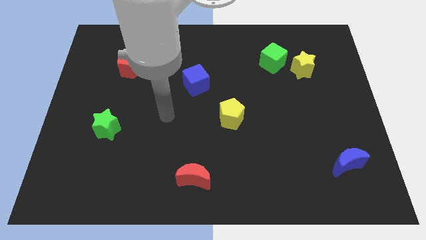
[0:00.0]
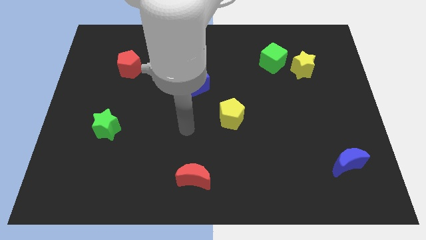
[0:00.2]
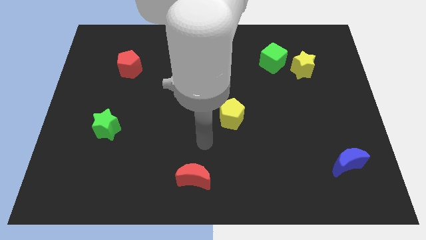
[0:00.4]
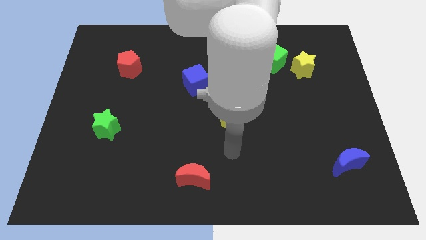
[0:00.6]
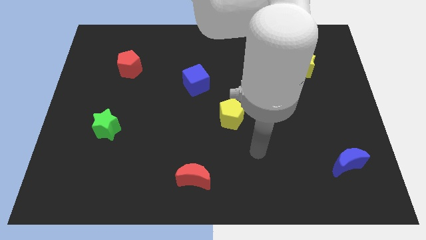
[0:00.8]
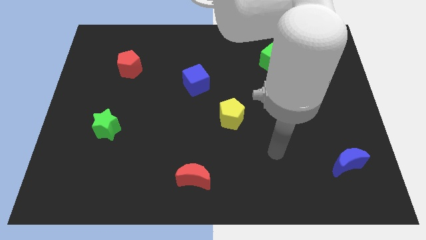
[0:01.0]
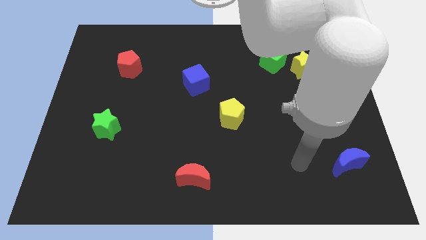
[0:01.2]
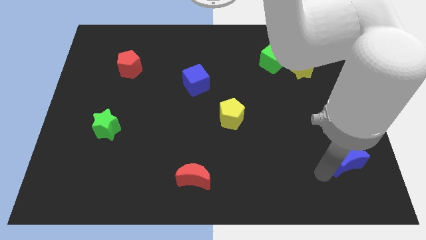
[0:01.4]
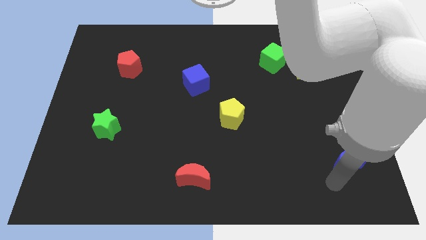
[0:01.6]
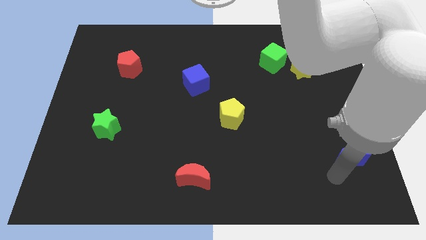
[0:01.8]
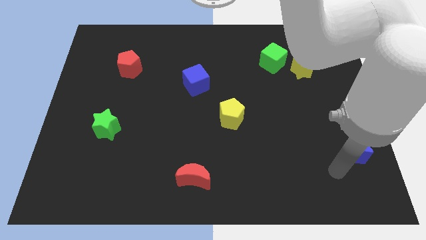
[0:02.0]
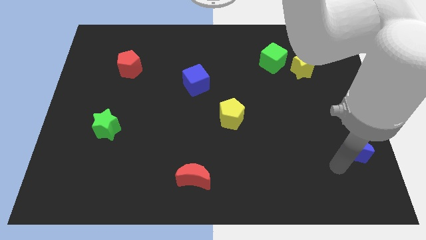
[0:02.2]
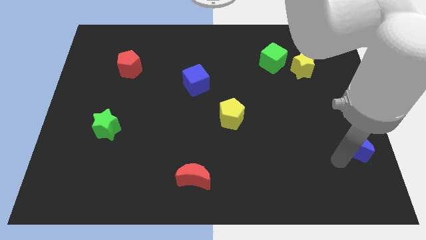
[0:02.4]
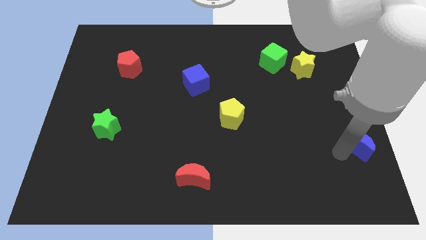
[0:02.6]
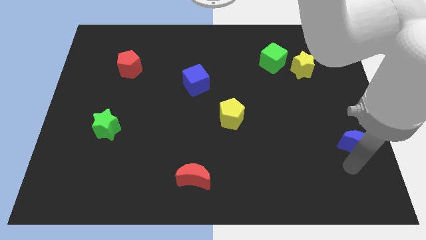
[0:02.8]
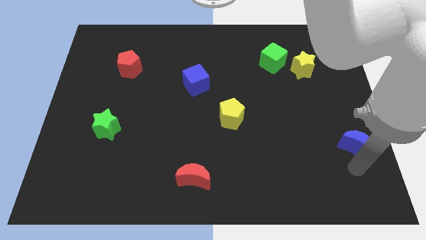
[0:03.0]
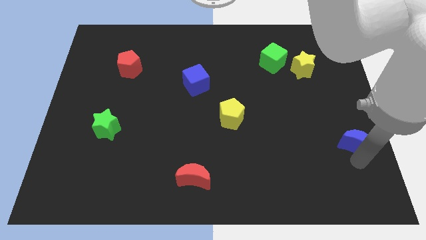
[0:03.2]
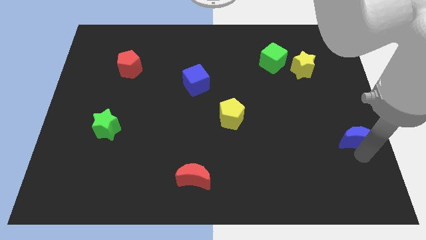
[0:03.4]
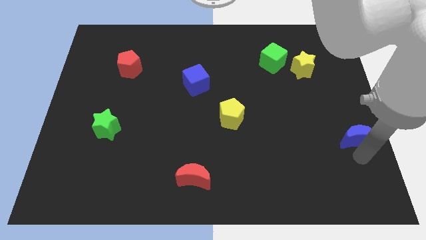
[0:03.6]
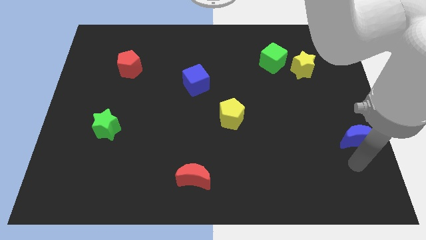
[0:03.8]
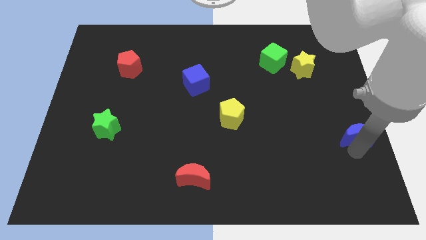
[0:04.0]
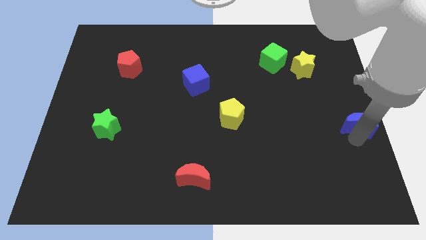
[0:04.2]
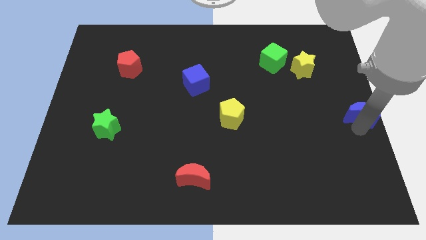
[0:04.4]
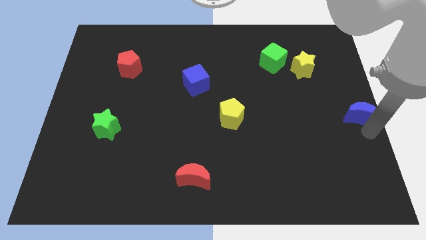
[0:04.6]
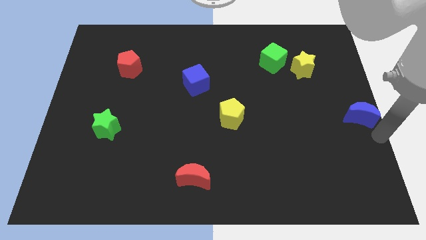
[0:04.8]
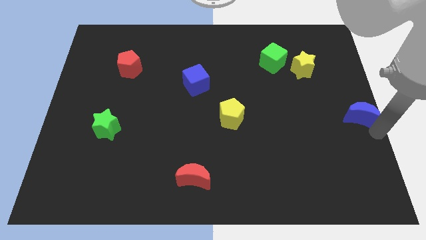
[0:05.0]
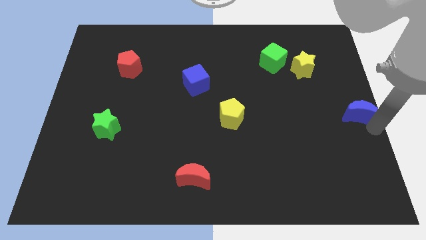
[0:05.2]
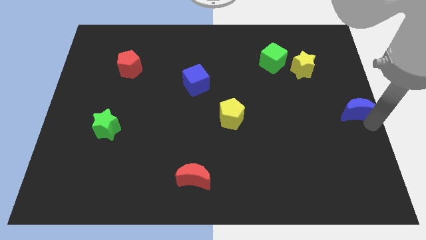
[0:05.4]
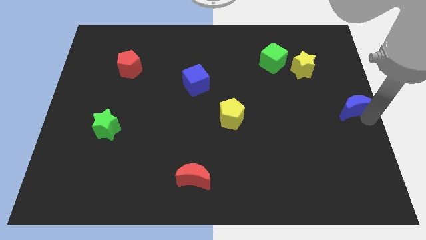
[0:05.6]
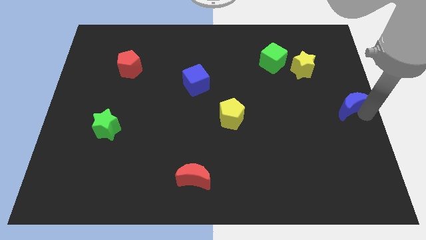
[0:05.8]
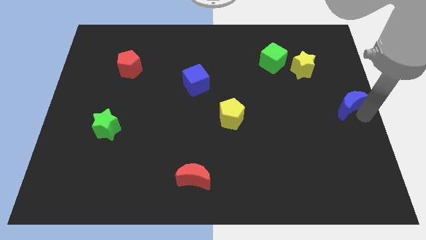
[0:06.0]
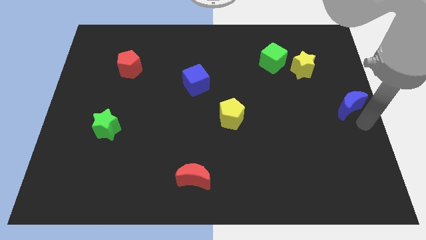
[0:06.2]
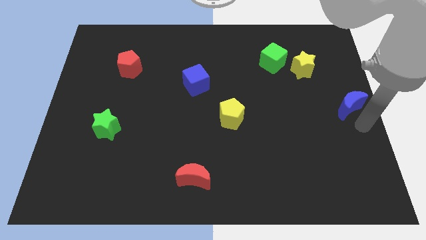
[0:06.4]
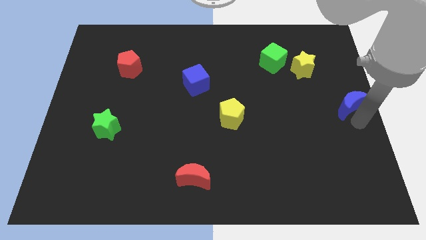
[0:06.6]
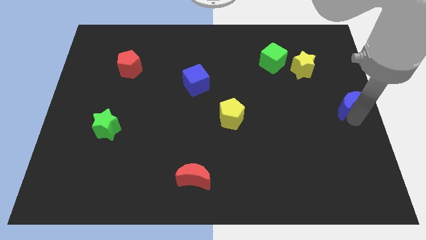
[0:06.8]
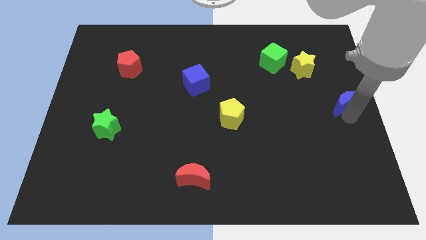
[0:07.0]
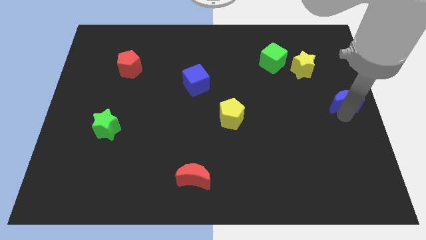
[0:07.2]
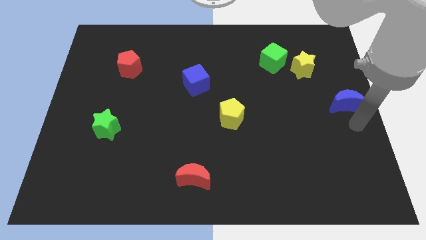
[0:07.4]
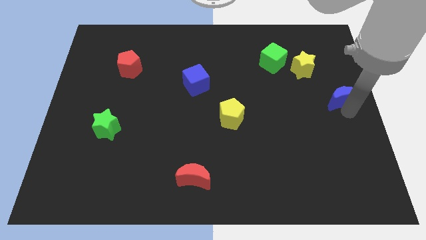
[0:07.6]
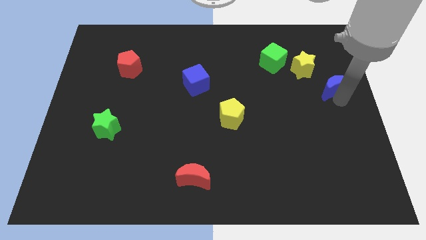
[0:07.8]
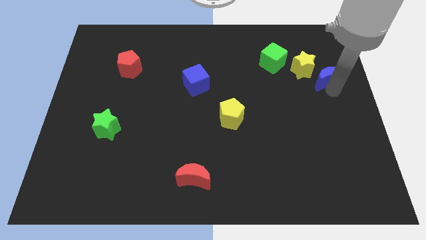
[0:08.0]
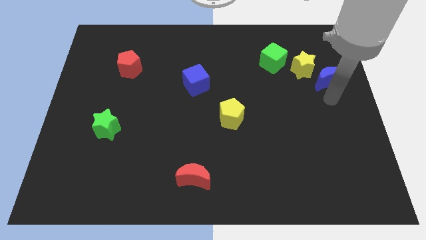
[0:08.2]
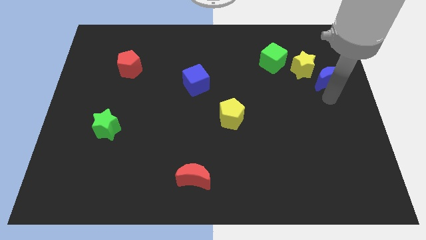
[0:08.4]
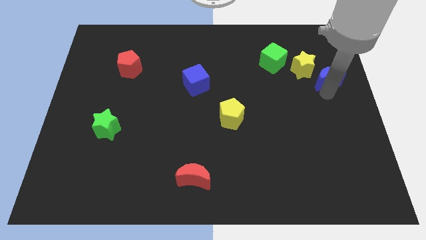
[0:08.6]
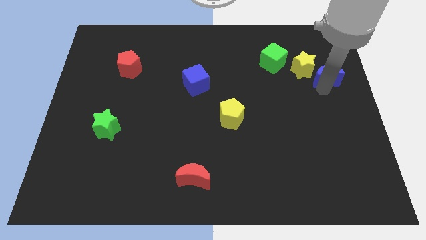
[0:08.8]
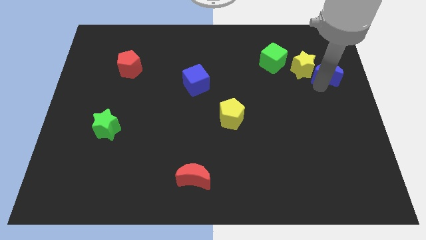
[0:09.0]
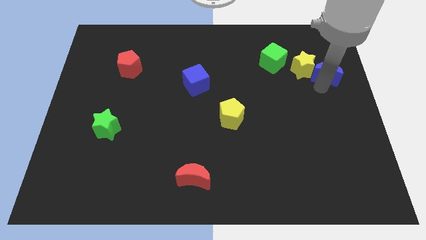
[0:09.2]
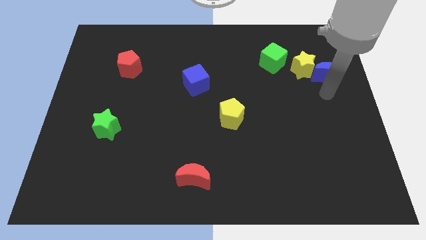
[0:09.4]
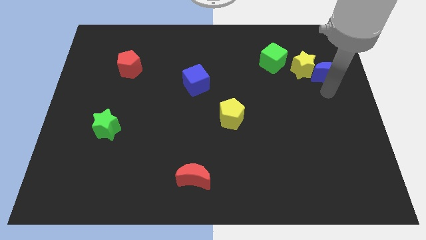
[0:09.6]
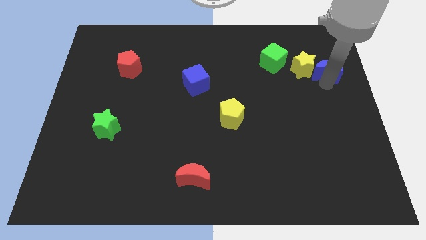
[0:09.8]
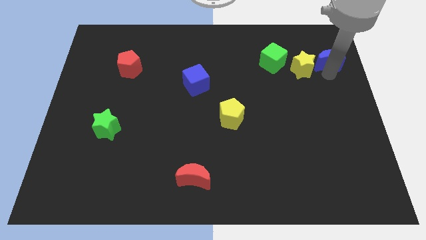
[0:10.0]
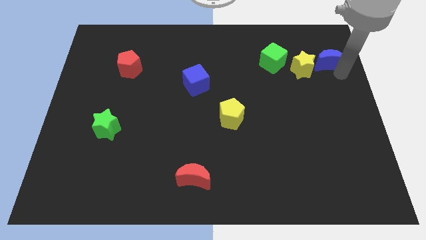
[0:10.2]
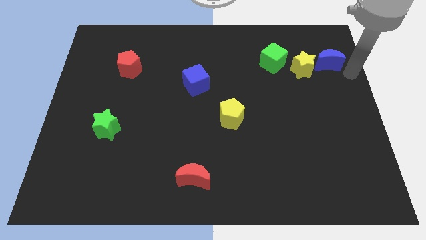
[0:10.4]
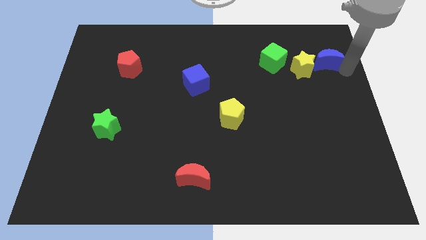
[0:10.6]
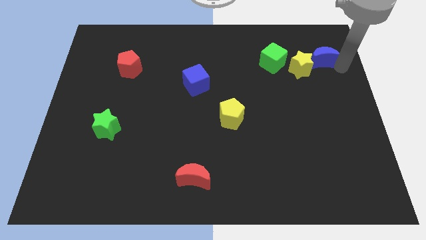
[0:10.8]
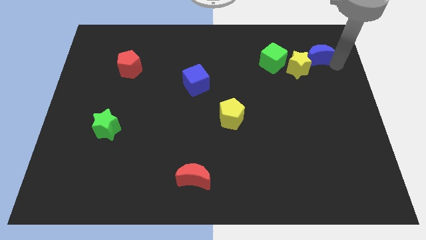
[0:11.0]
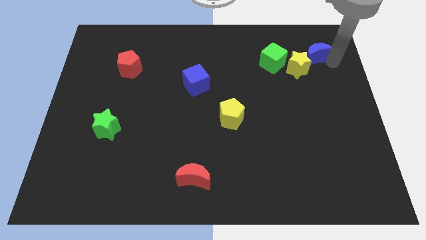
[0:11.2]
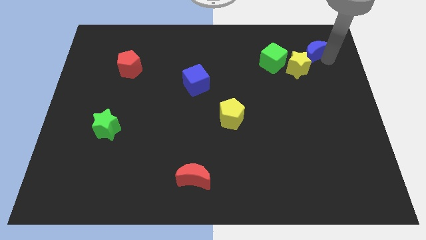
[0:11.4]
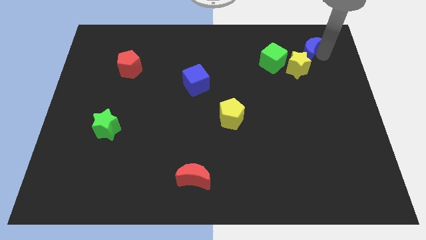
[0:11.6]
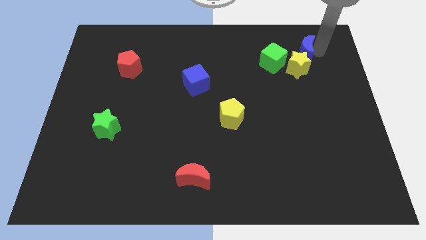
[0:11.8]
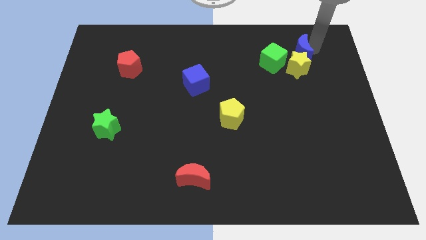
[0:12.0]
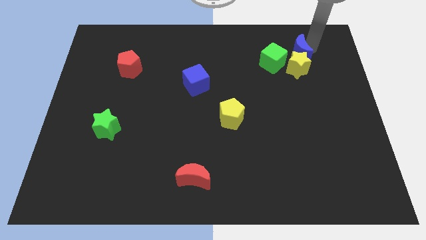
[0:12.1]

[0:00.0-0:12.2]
slide the blue moon diagonally up and to the left of the yellow star

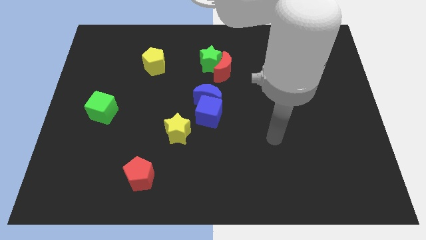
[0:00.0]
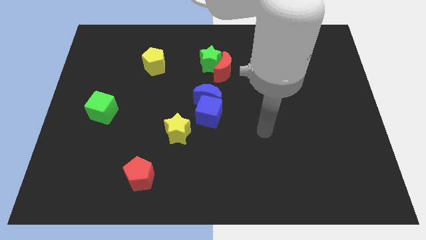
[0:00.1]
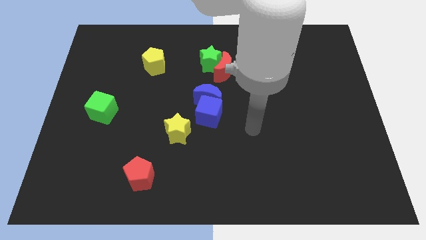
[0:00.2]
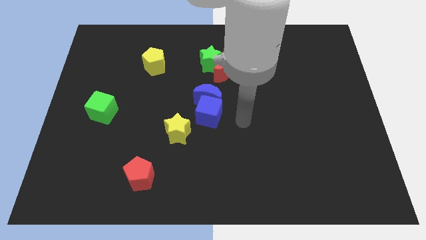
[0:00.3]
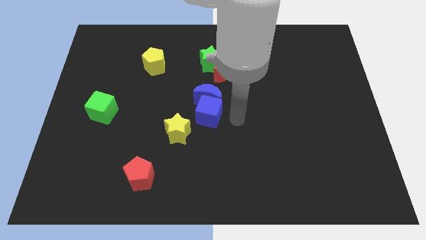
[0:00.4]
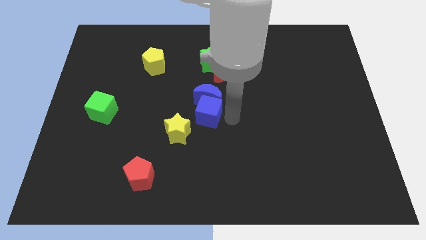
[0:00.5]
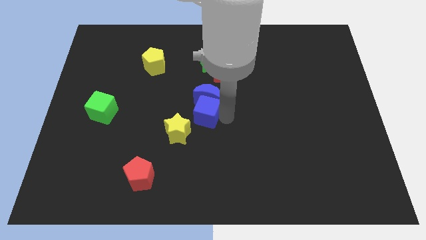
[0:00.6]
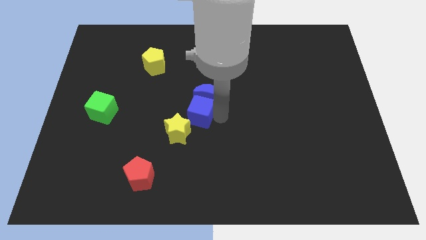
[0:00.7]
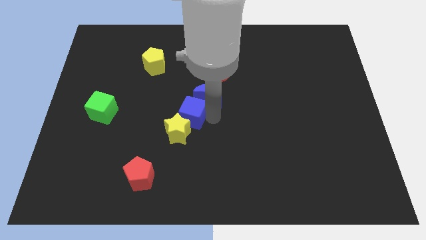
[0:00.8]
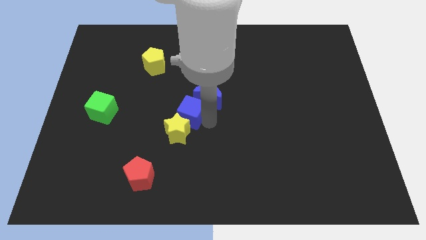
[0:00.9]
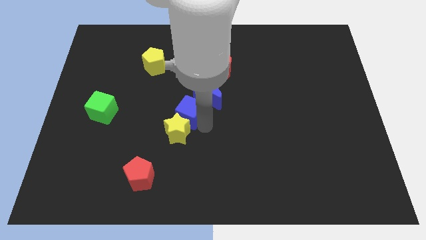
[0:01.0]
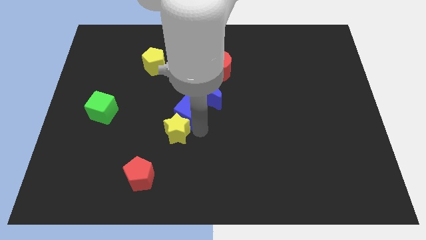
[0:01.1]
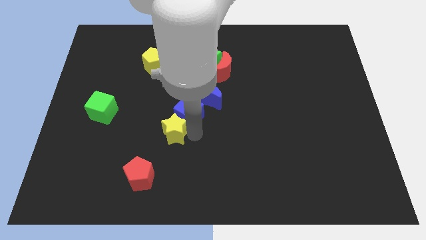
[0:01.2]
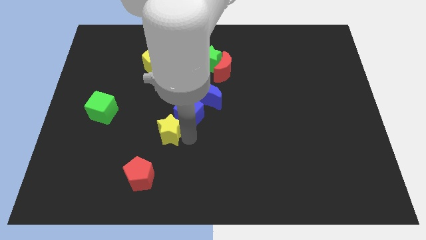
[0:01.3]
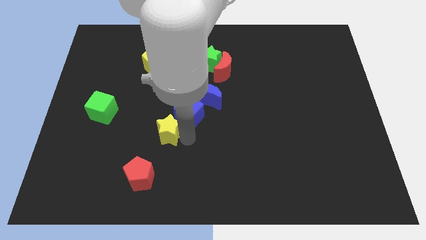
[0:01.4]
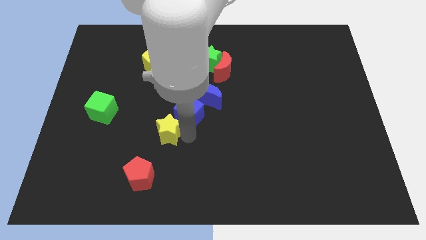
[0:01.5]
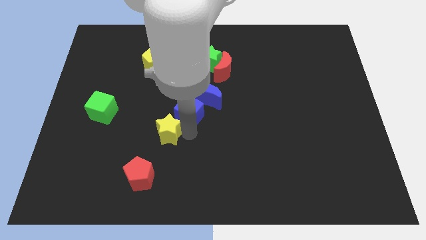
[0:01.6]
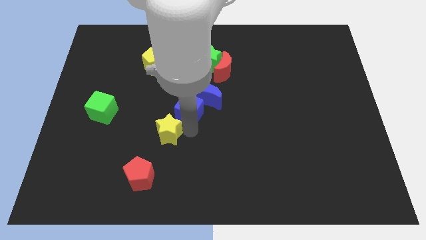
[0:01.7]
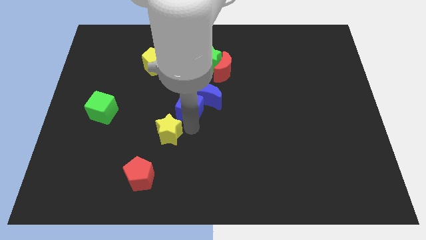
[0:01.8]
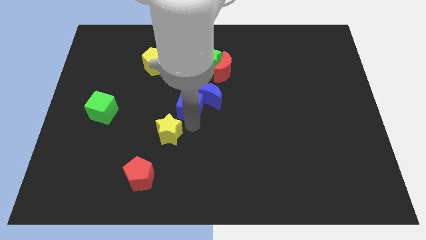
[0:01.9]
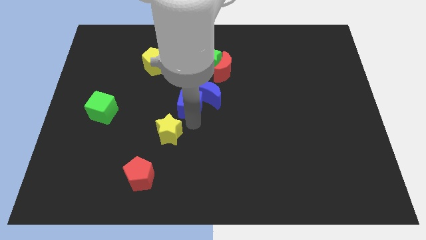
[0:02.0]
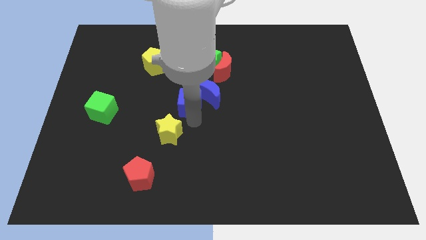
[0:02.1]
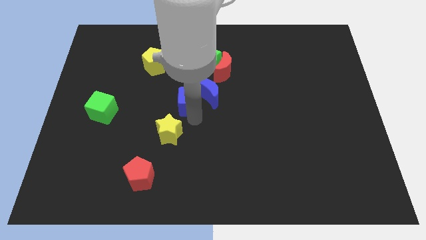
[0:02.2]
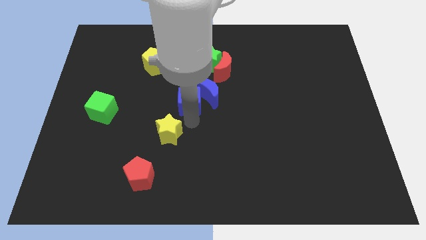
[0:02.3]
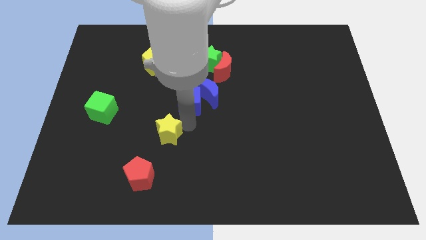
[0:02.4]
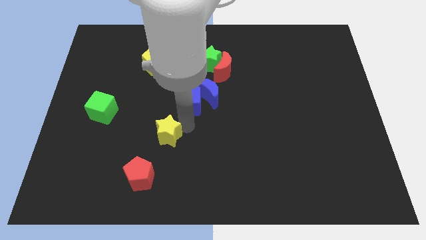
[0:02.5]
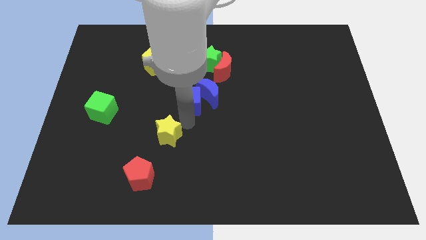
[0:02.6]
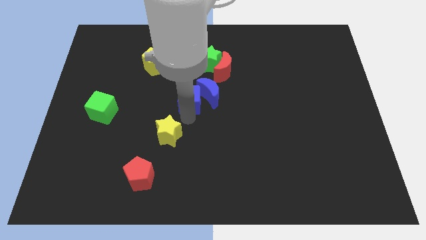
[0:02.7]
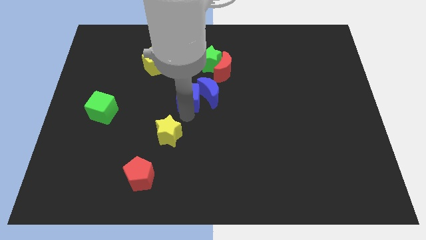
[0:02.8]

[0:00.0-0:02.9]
slide the blue cube to the bottom left of the red moon
